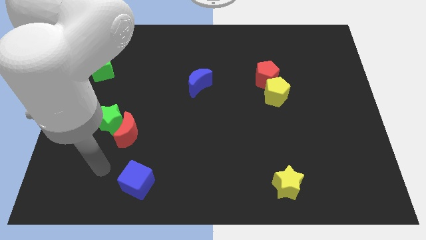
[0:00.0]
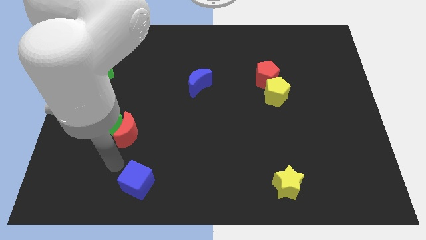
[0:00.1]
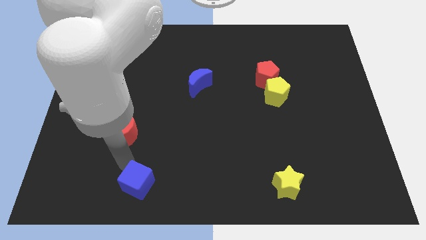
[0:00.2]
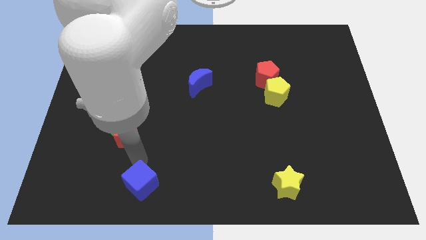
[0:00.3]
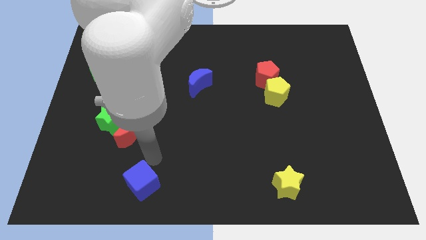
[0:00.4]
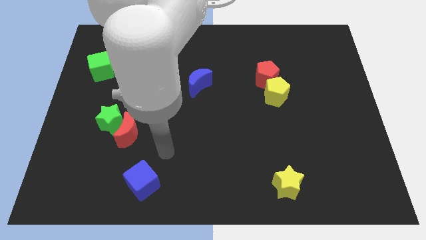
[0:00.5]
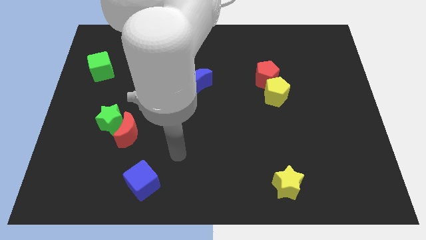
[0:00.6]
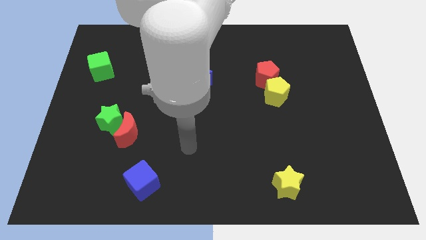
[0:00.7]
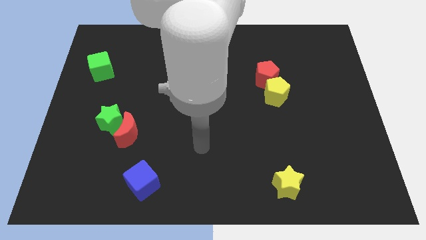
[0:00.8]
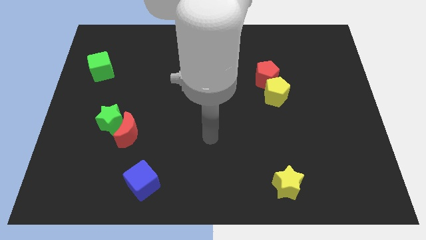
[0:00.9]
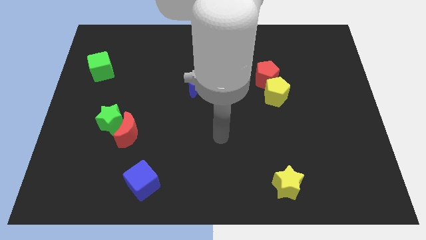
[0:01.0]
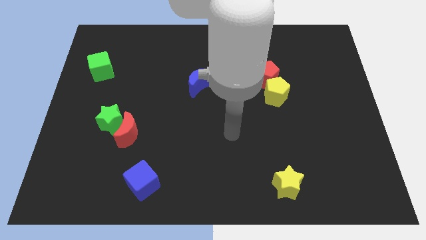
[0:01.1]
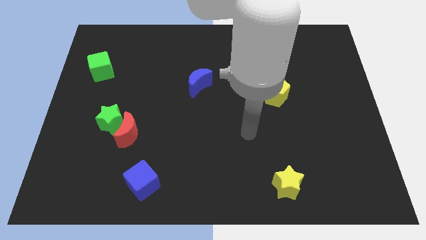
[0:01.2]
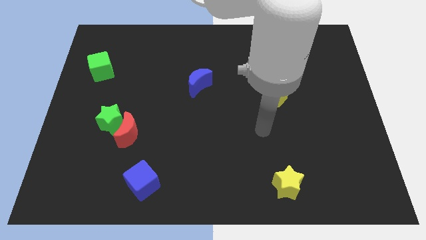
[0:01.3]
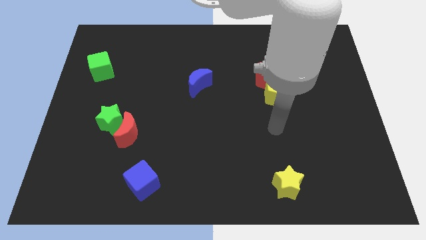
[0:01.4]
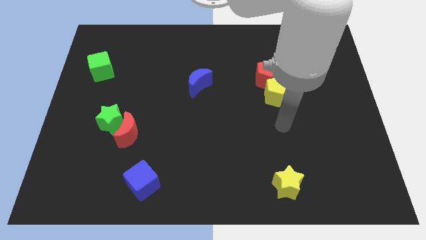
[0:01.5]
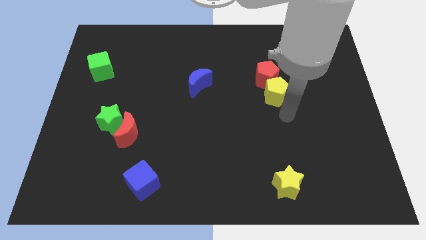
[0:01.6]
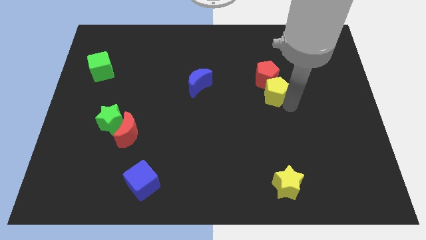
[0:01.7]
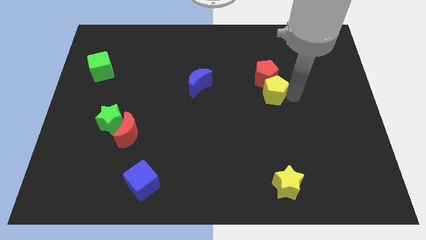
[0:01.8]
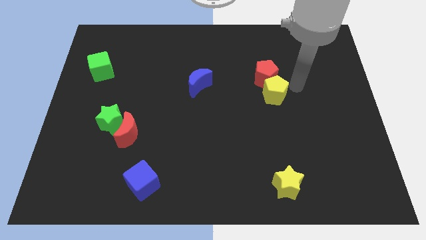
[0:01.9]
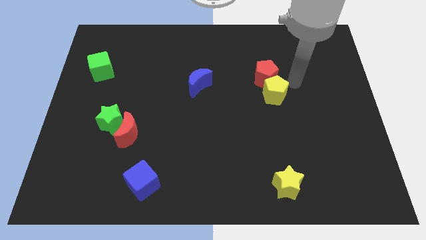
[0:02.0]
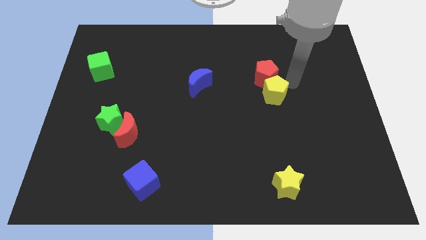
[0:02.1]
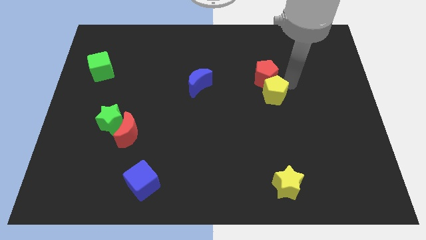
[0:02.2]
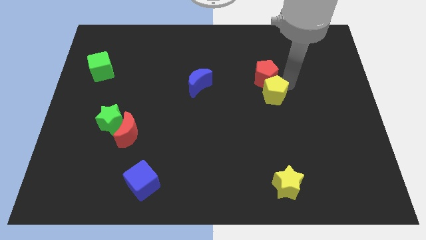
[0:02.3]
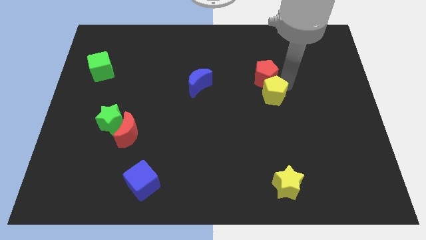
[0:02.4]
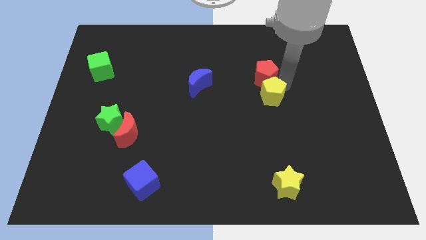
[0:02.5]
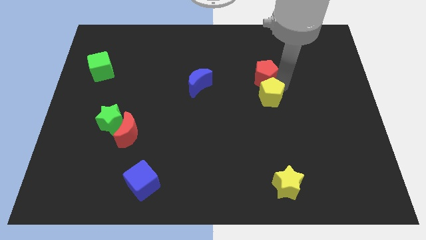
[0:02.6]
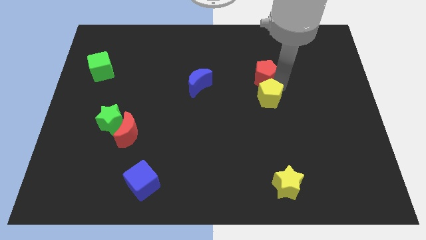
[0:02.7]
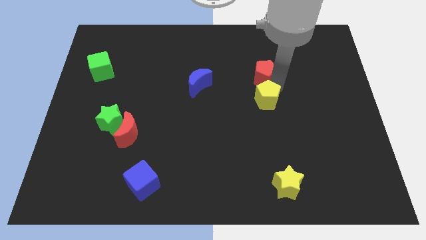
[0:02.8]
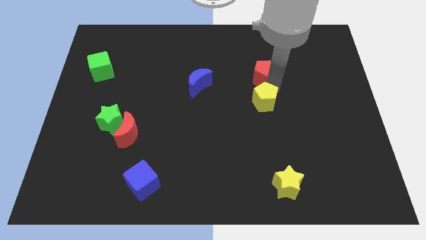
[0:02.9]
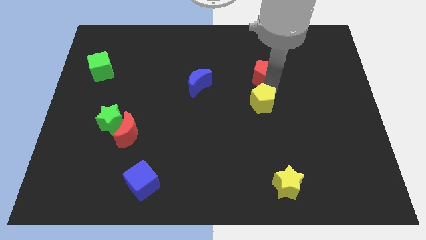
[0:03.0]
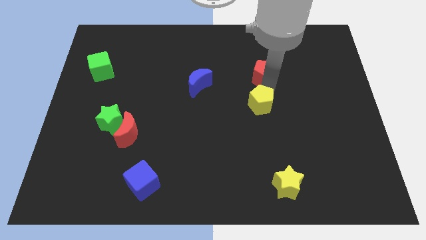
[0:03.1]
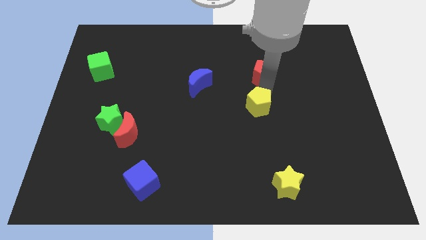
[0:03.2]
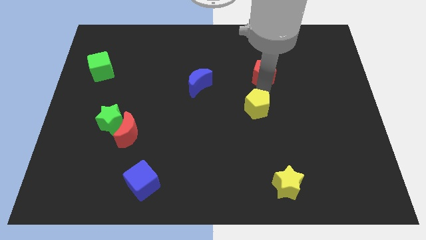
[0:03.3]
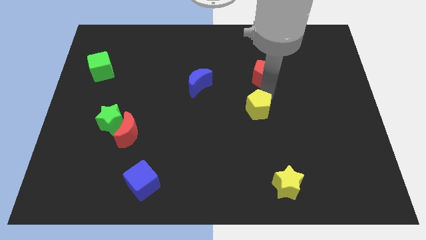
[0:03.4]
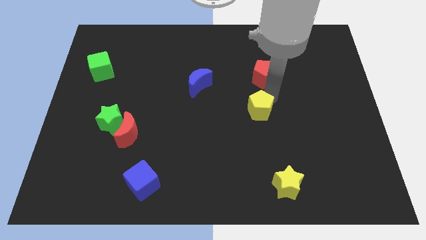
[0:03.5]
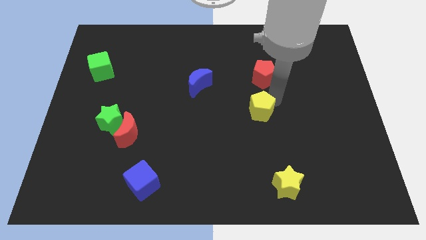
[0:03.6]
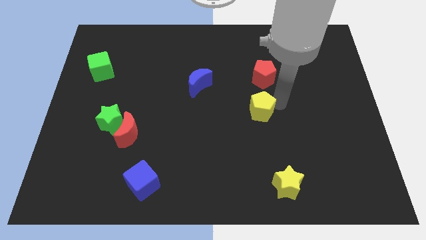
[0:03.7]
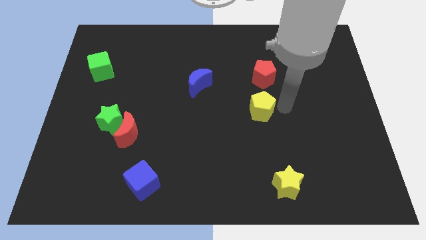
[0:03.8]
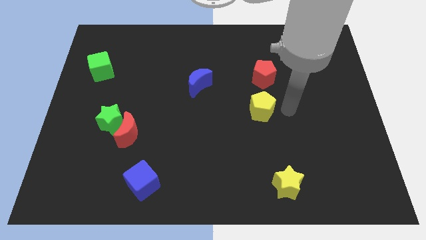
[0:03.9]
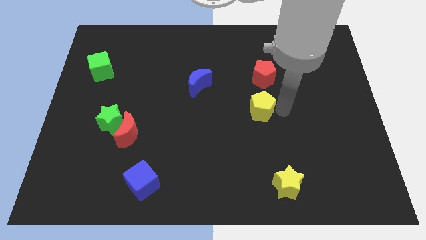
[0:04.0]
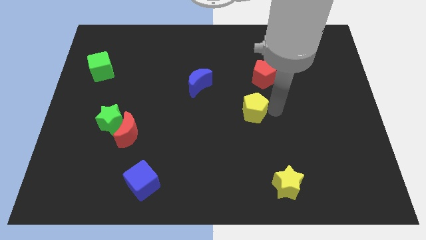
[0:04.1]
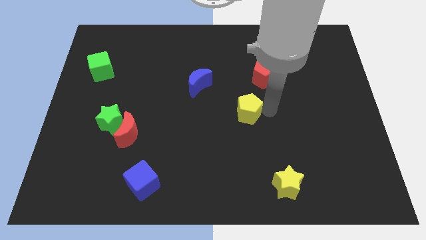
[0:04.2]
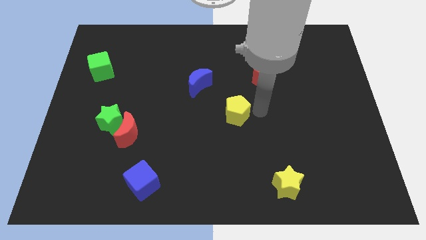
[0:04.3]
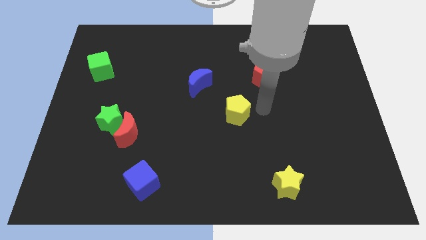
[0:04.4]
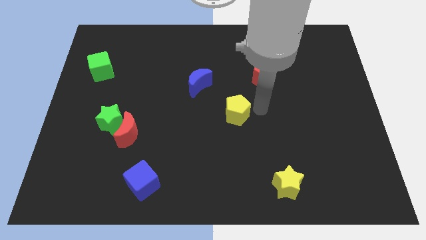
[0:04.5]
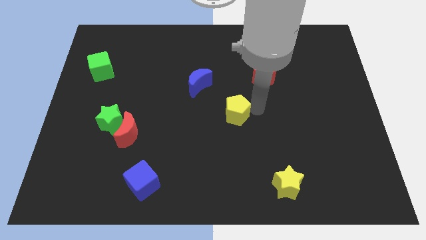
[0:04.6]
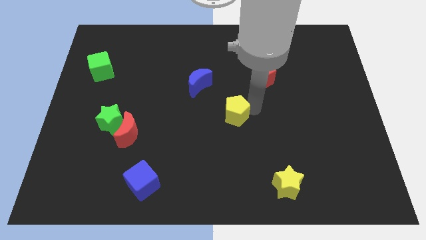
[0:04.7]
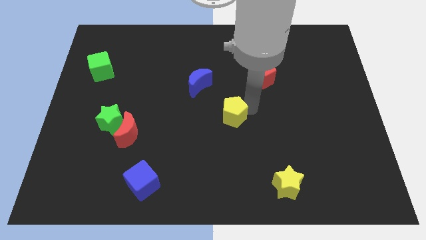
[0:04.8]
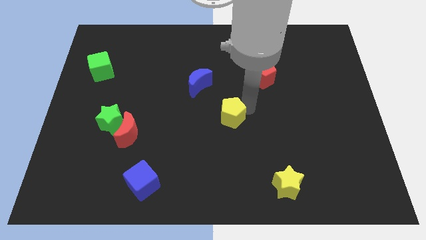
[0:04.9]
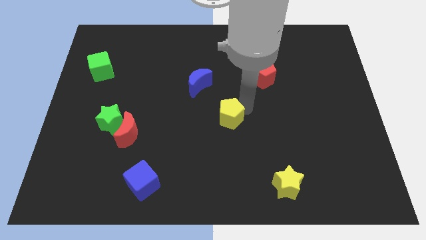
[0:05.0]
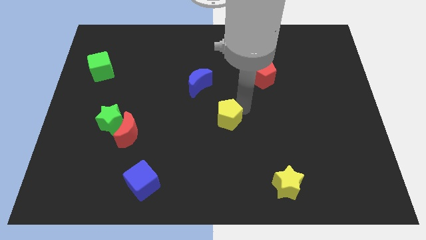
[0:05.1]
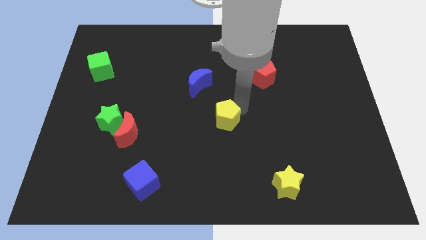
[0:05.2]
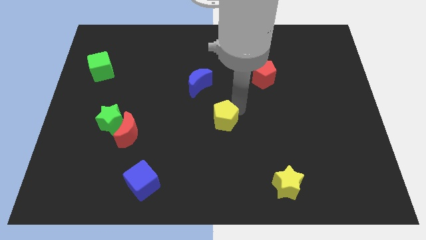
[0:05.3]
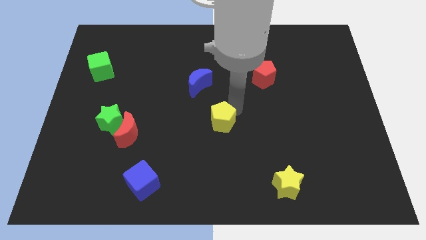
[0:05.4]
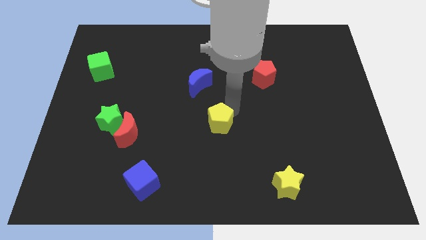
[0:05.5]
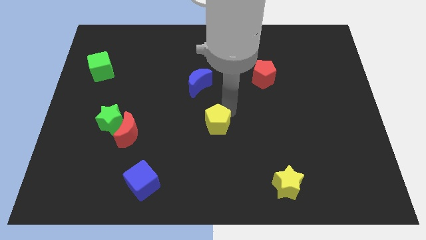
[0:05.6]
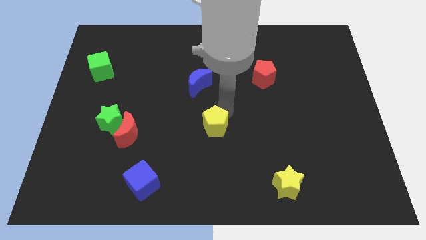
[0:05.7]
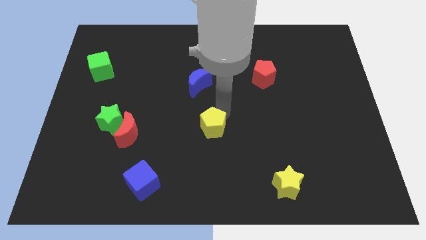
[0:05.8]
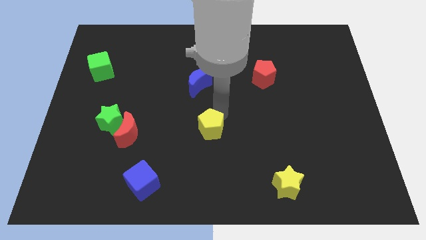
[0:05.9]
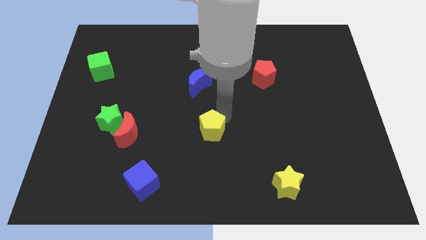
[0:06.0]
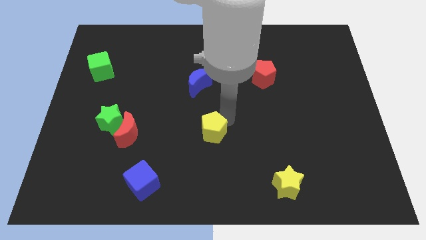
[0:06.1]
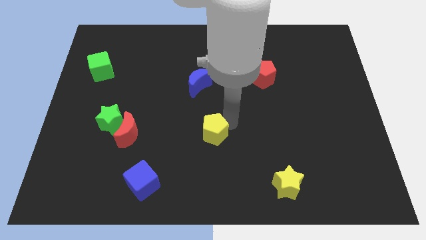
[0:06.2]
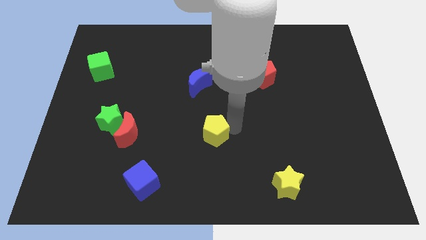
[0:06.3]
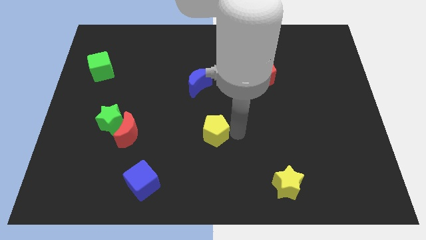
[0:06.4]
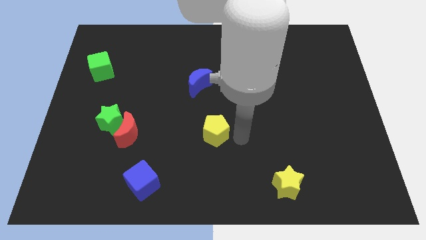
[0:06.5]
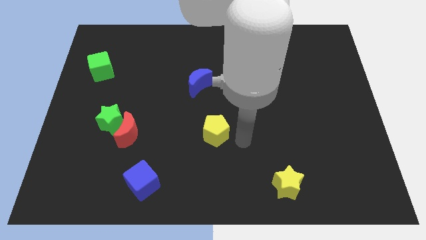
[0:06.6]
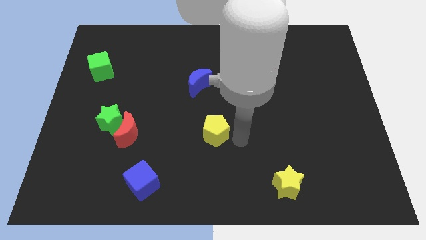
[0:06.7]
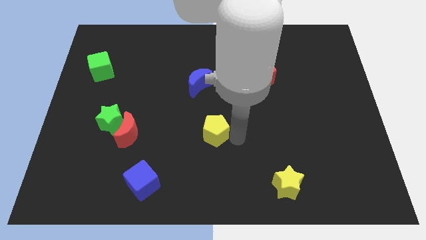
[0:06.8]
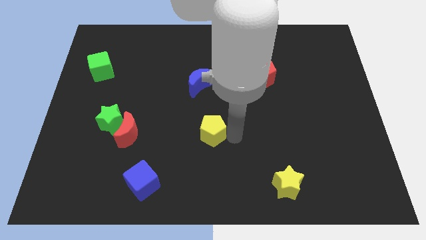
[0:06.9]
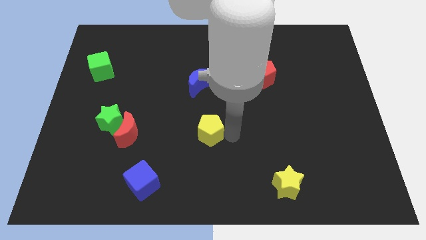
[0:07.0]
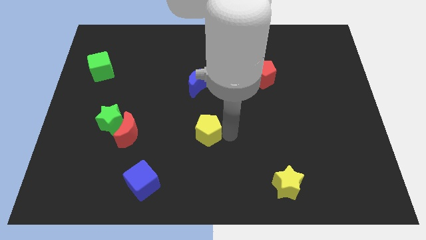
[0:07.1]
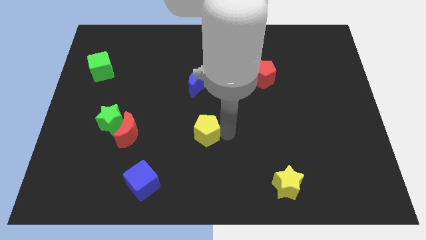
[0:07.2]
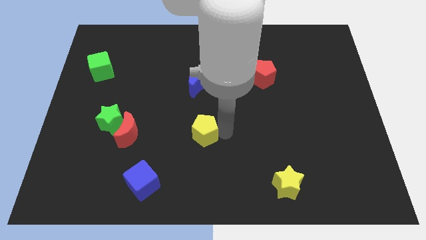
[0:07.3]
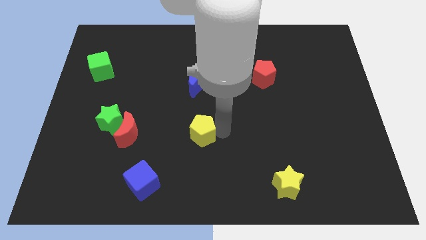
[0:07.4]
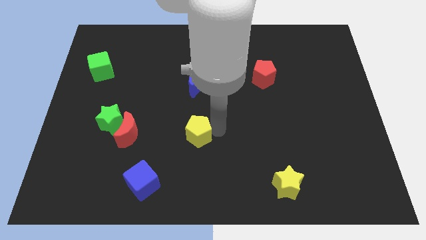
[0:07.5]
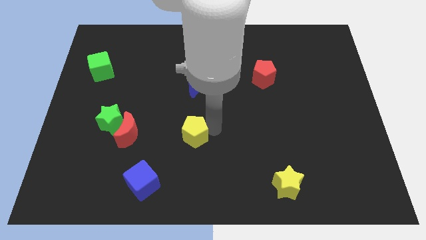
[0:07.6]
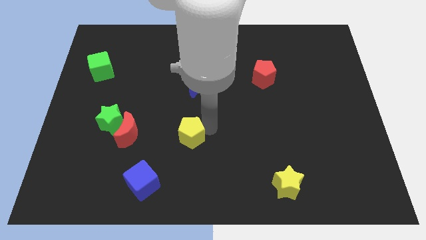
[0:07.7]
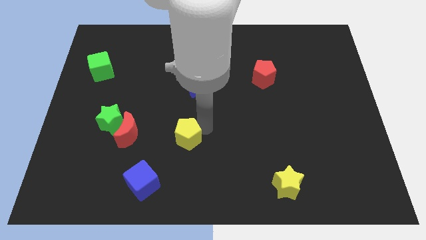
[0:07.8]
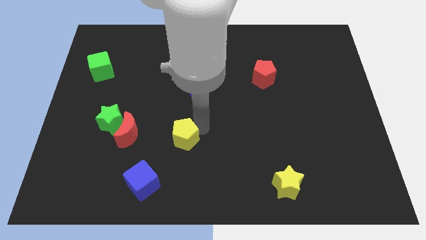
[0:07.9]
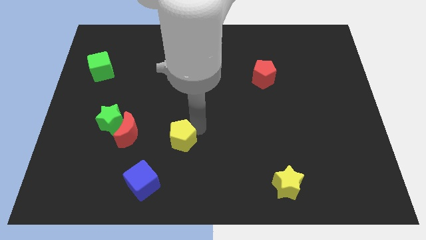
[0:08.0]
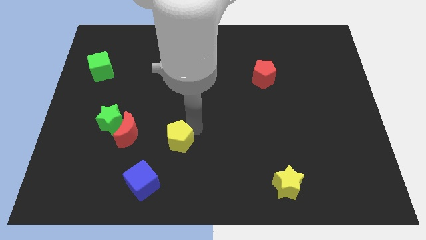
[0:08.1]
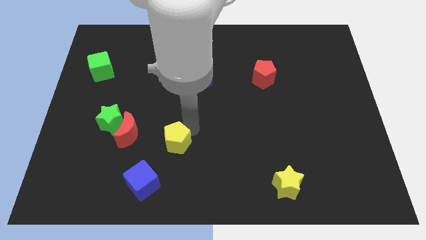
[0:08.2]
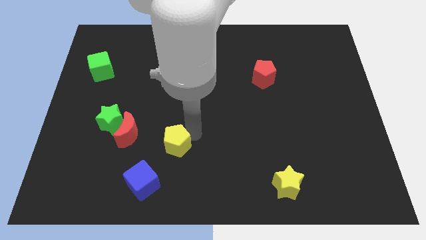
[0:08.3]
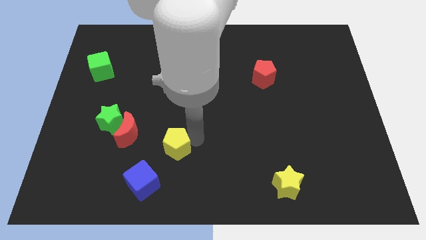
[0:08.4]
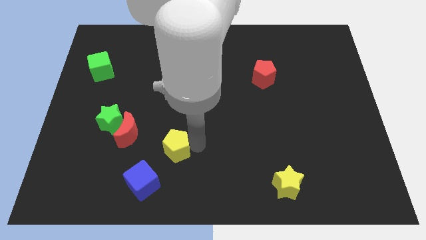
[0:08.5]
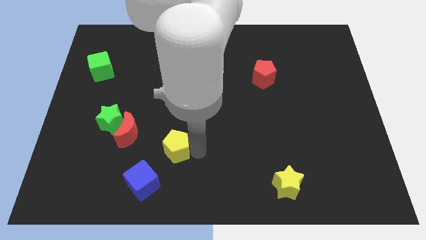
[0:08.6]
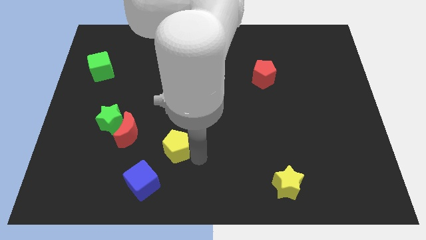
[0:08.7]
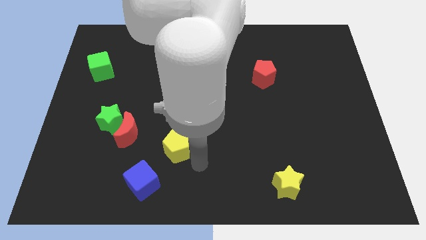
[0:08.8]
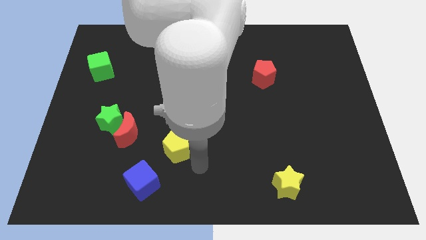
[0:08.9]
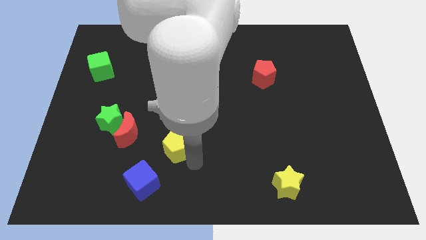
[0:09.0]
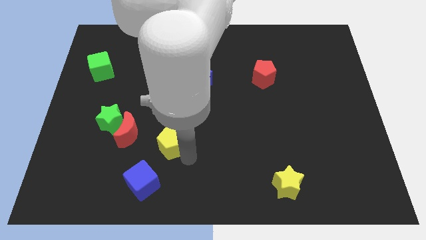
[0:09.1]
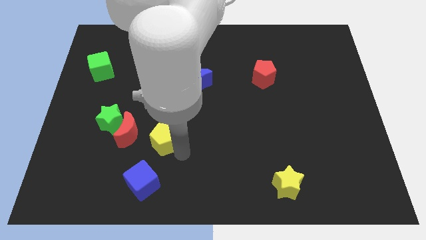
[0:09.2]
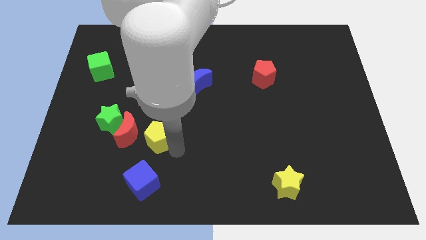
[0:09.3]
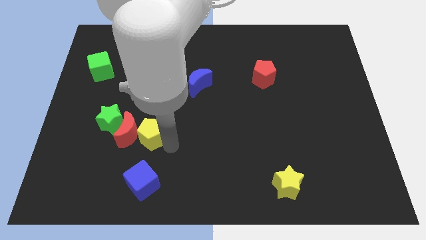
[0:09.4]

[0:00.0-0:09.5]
push the yellow pentagon next to the red moon
